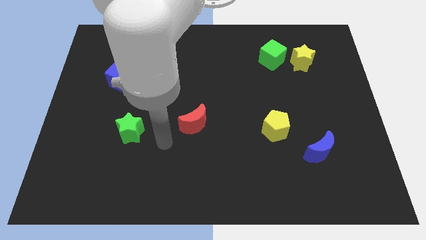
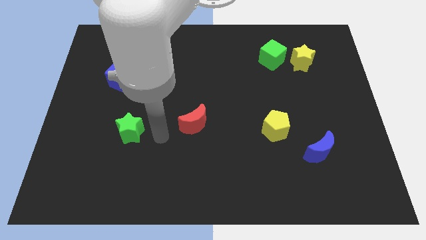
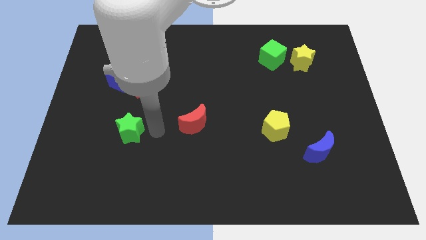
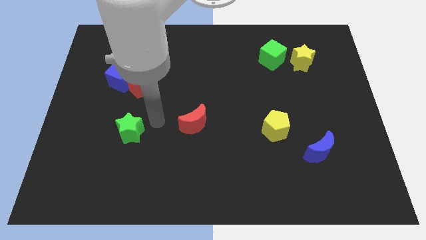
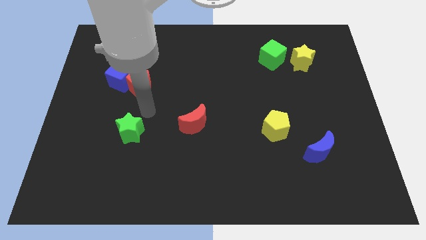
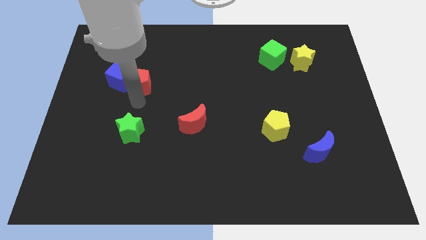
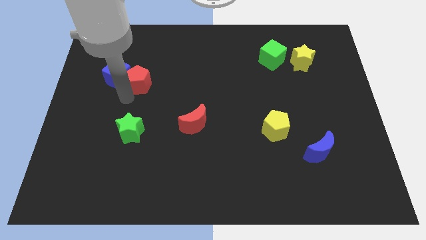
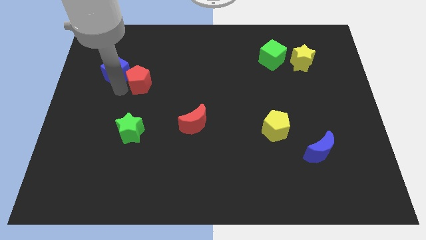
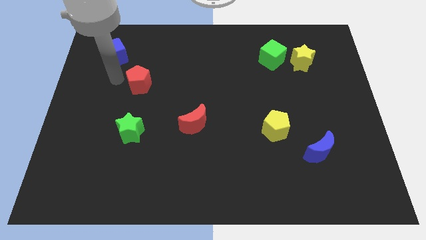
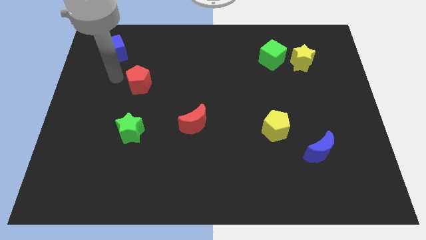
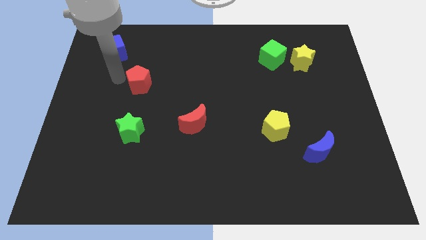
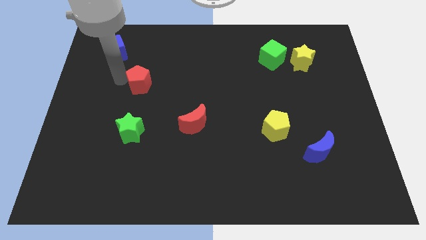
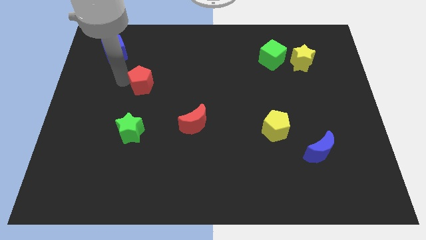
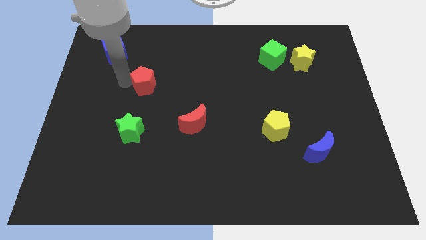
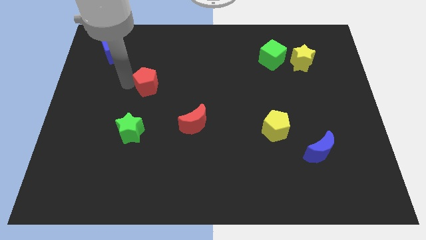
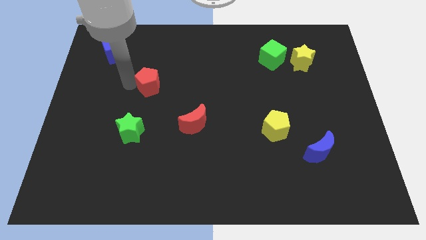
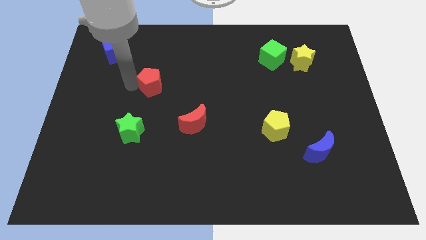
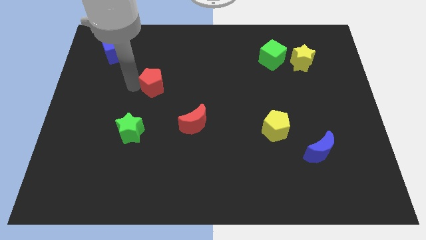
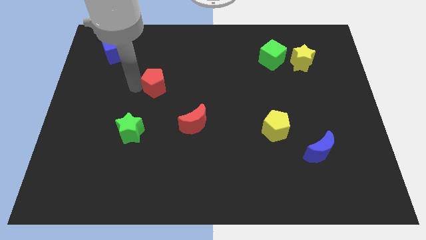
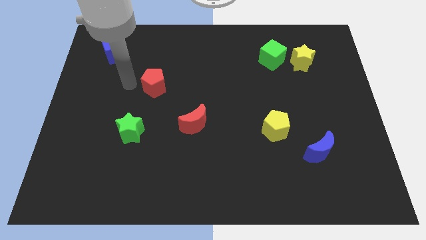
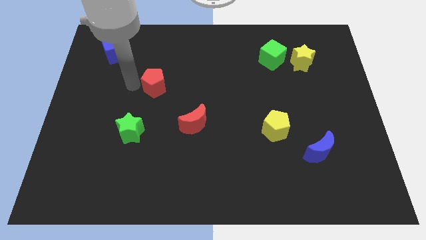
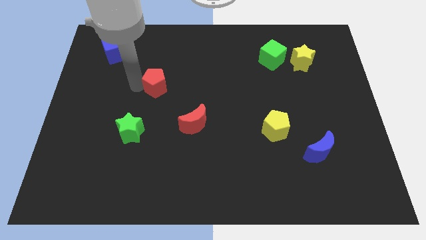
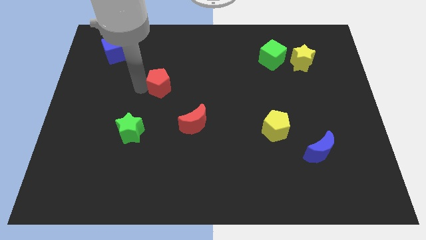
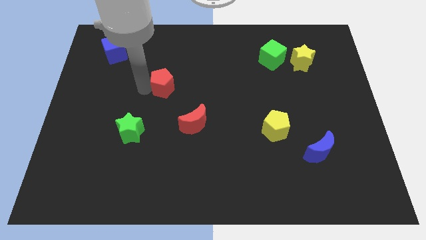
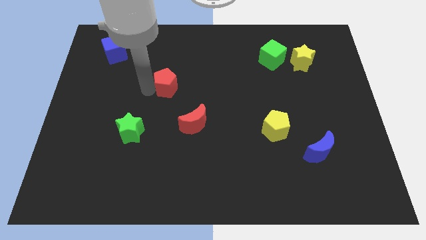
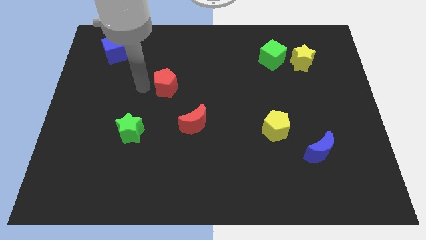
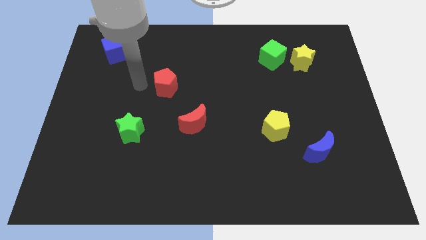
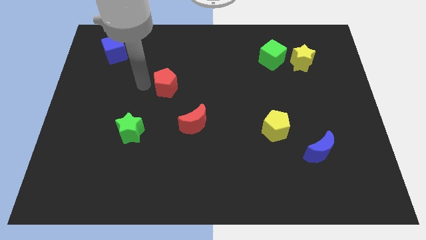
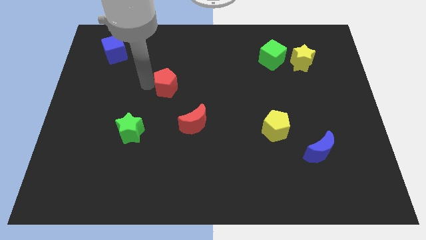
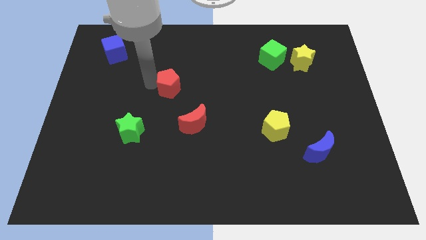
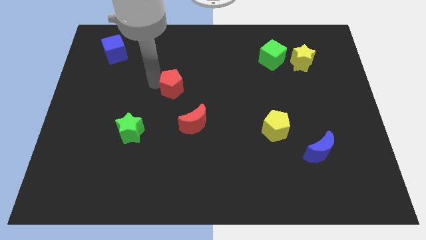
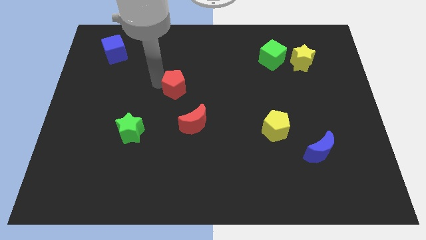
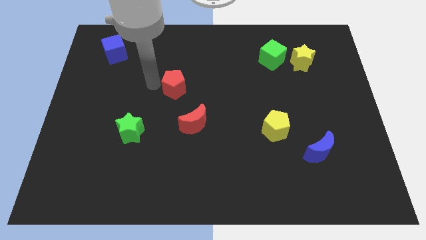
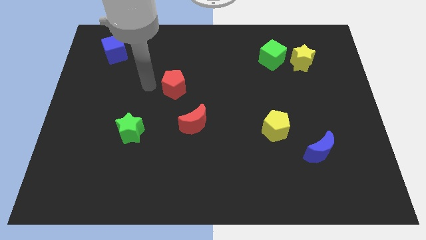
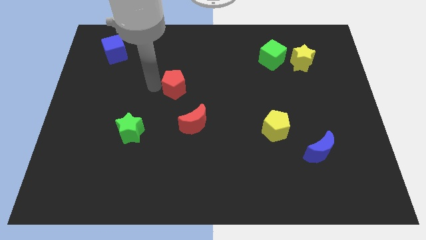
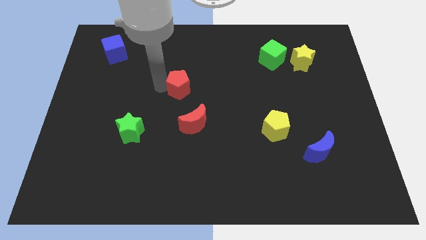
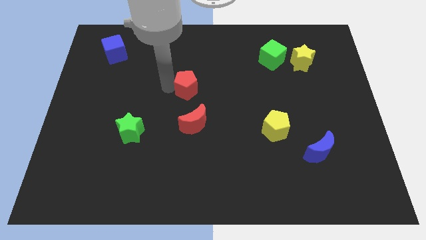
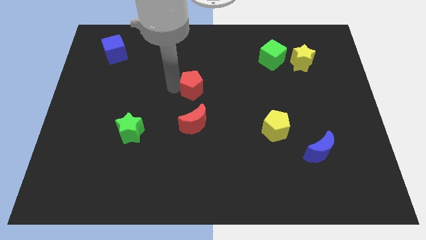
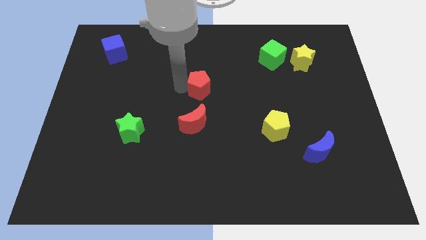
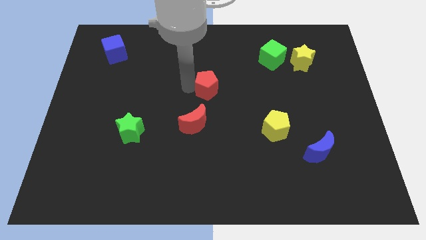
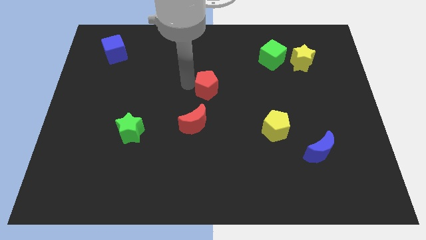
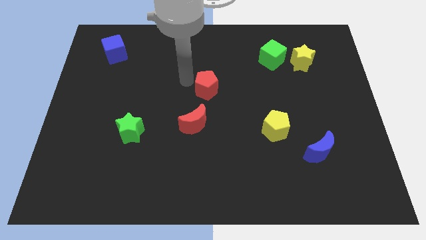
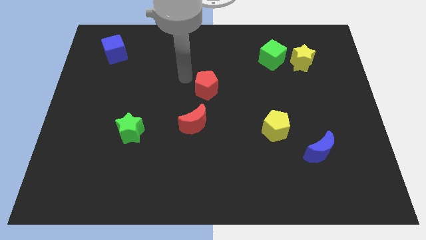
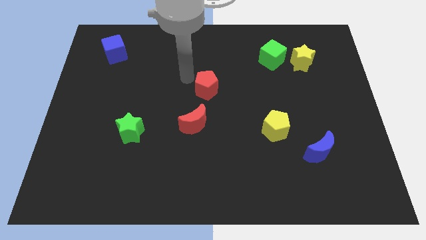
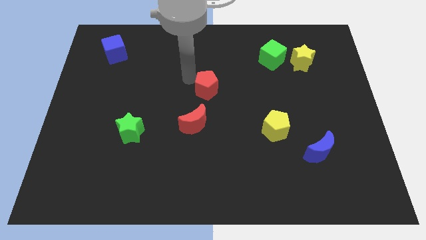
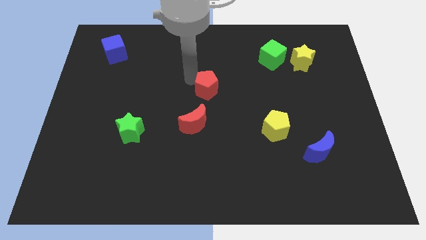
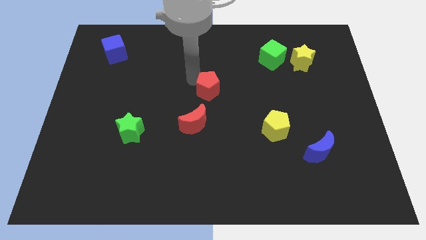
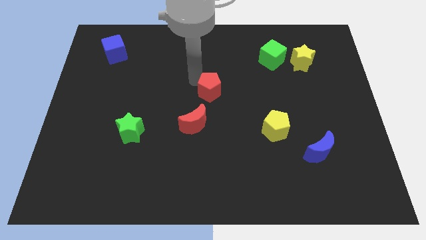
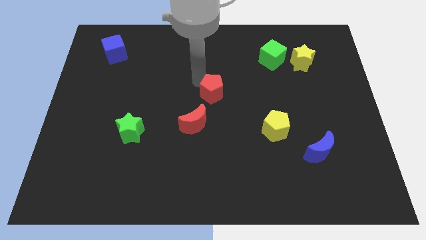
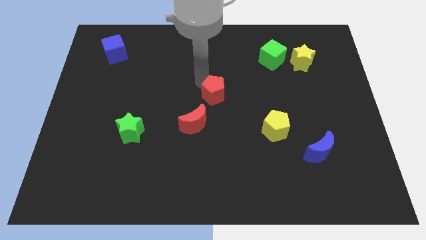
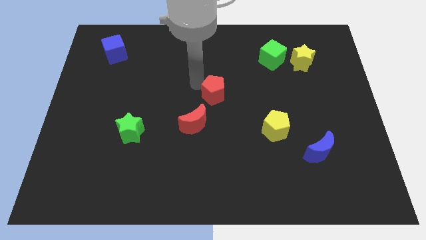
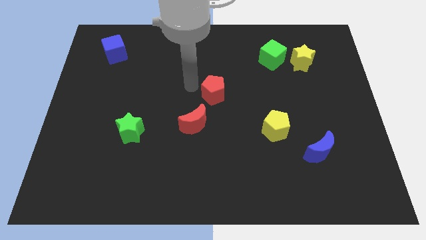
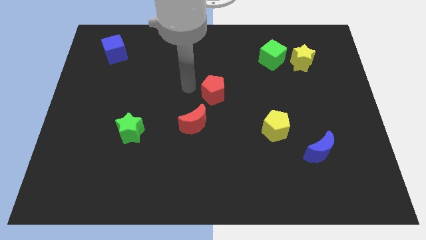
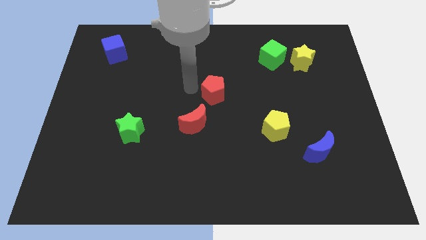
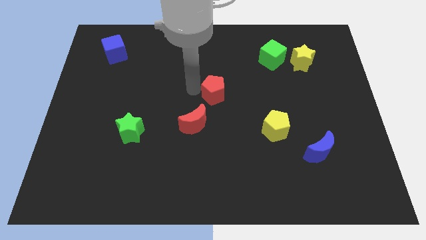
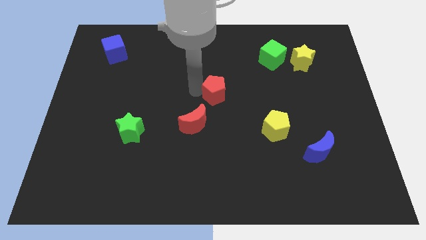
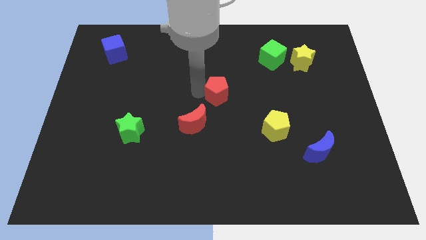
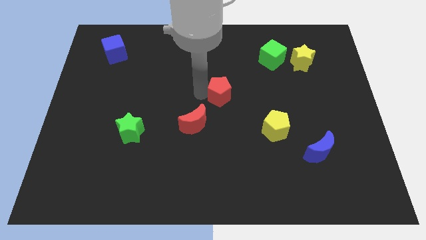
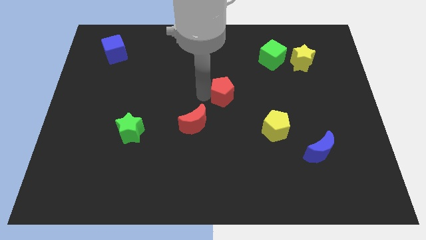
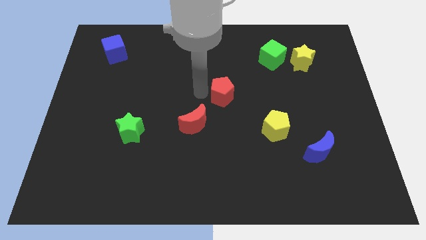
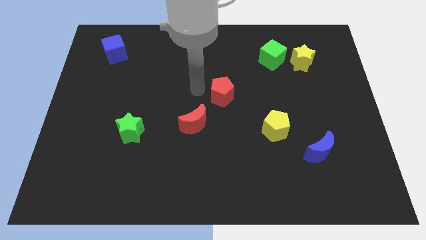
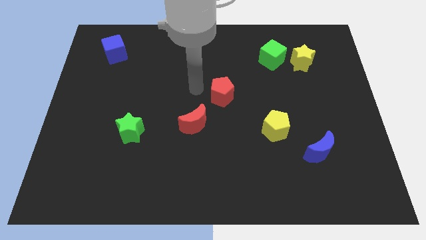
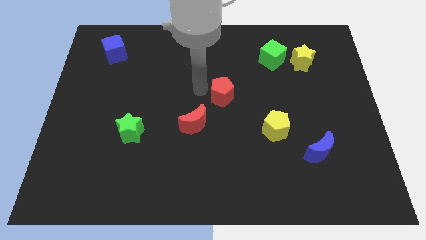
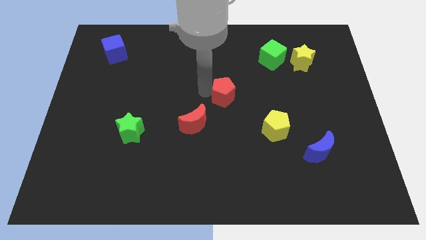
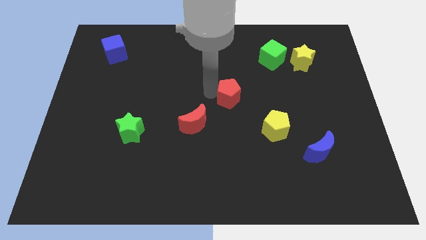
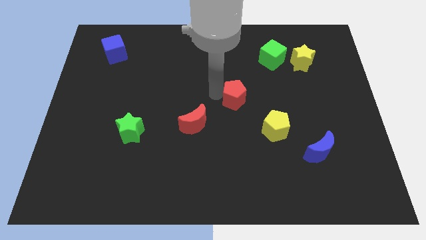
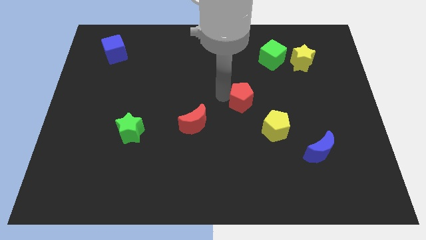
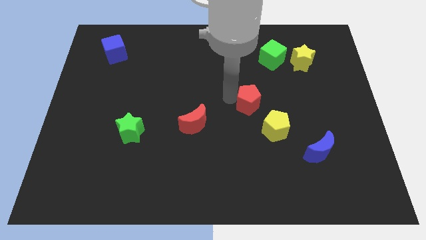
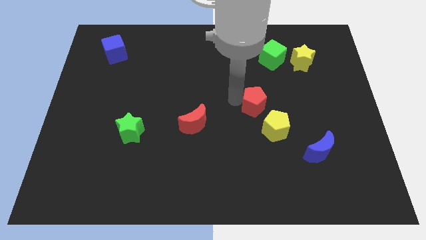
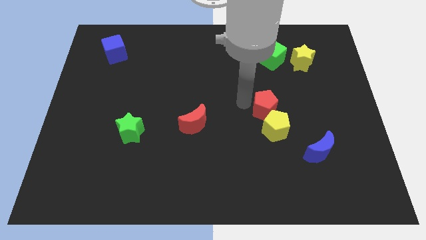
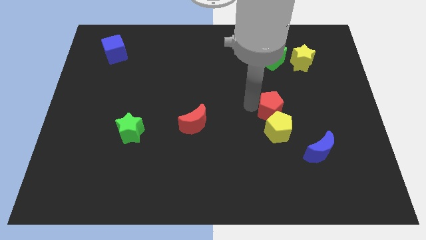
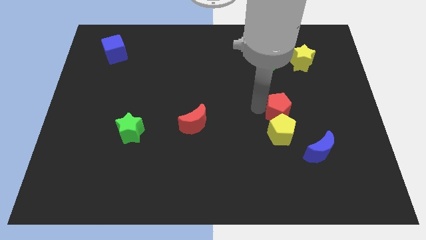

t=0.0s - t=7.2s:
slide the red pentagon to the top right side of the yellow pentagon

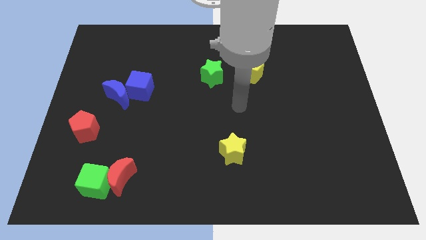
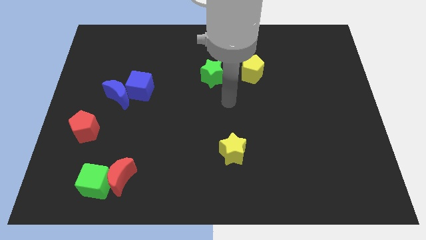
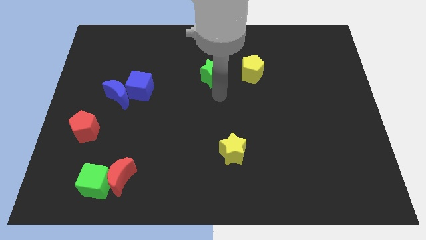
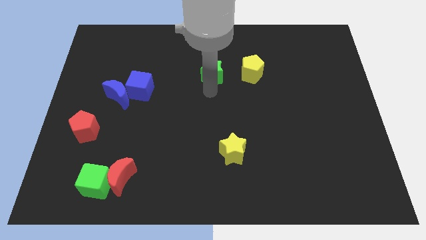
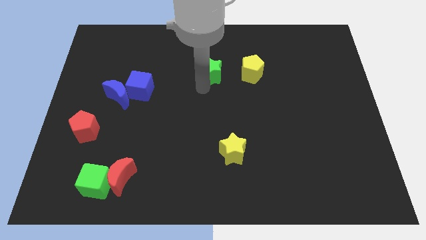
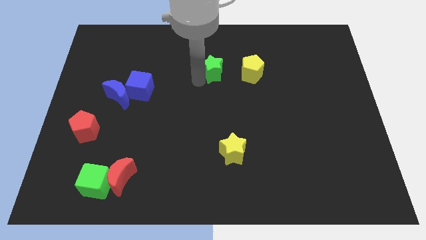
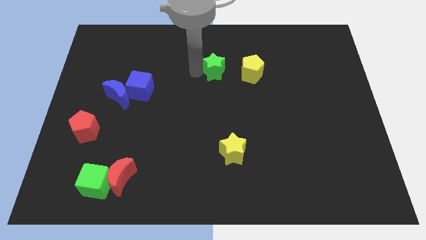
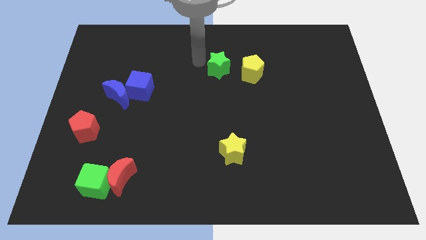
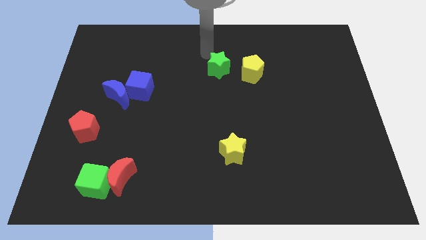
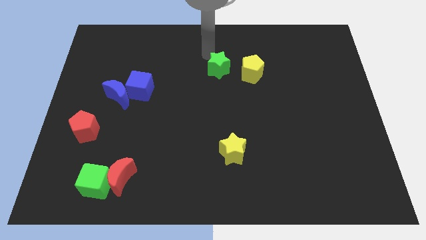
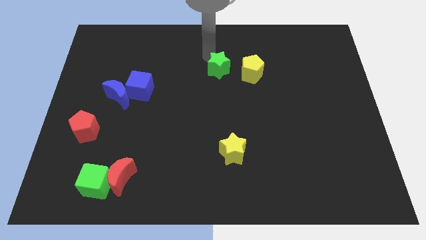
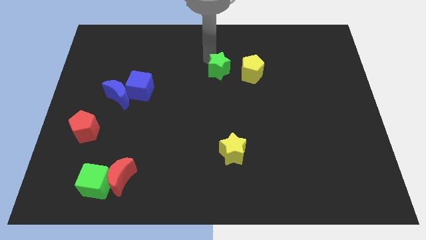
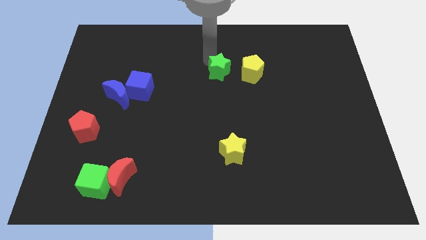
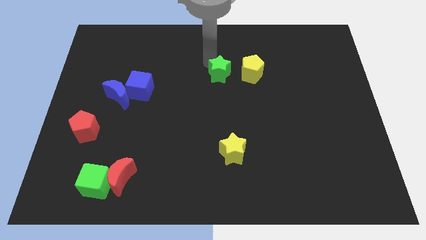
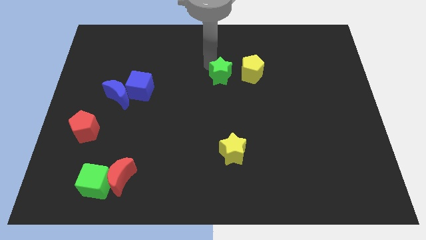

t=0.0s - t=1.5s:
slide the green star to the bottom left side of the yellow pentagon
